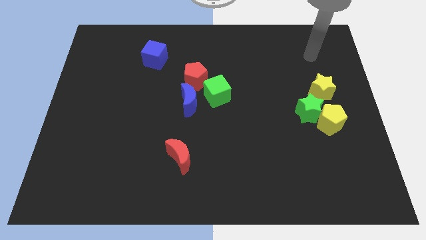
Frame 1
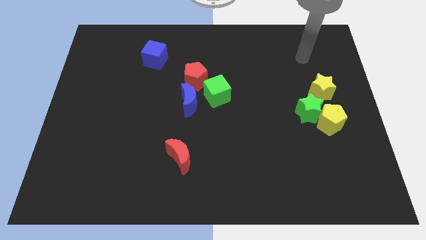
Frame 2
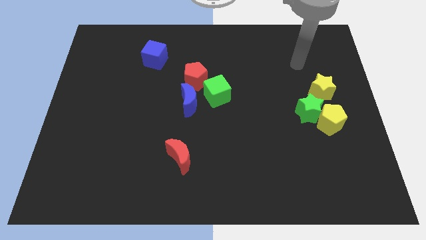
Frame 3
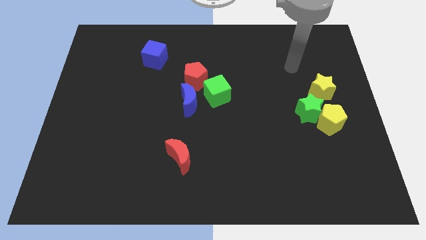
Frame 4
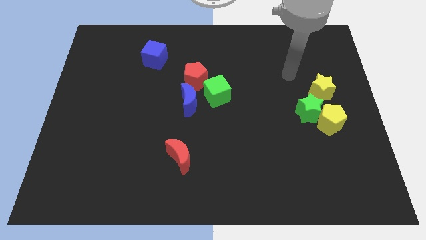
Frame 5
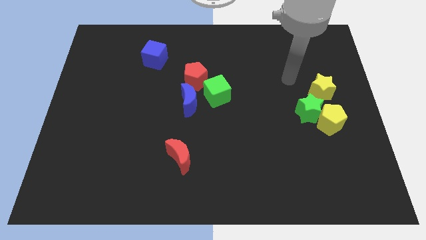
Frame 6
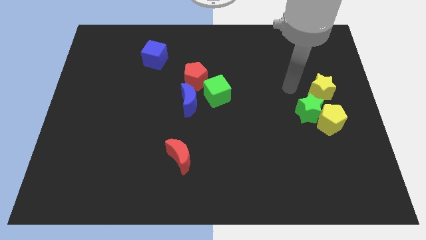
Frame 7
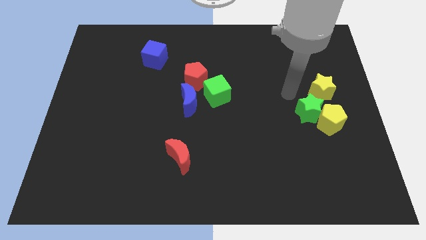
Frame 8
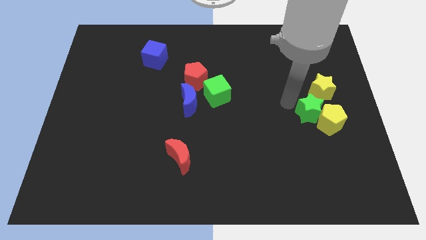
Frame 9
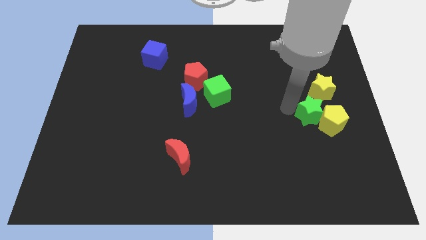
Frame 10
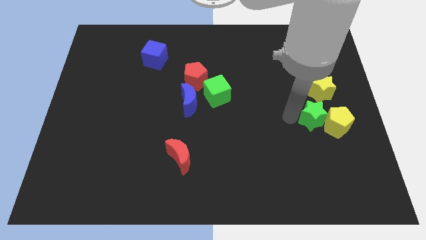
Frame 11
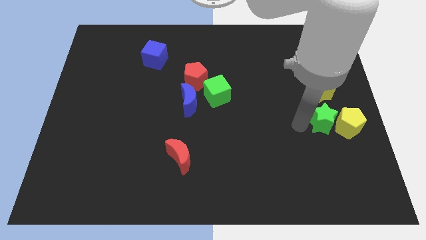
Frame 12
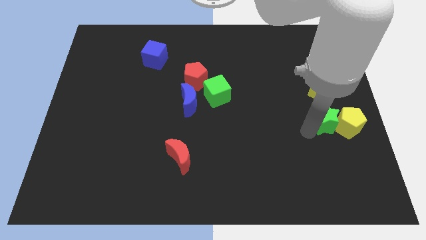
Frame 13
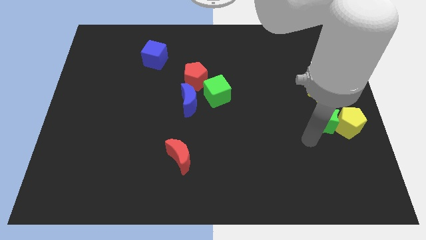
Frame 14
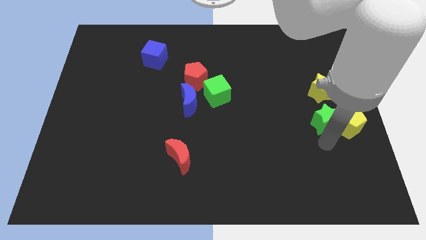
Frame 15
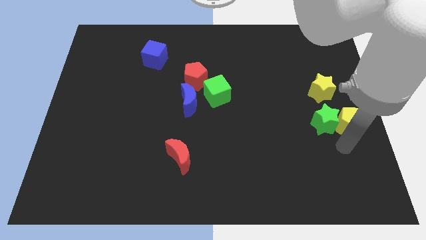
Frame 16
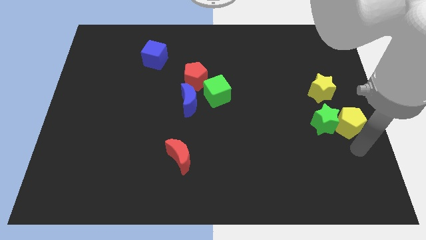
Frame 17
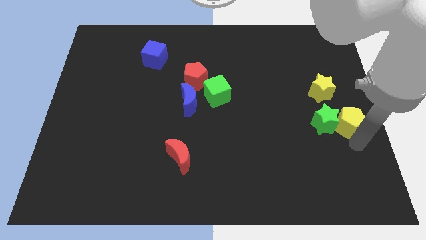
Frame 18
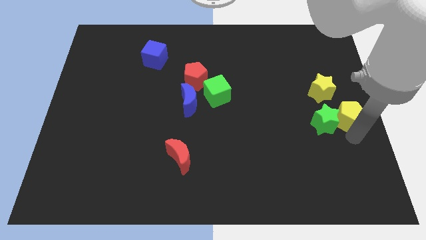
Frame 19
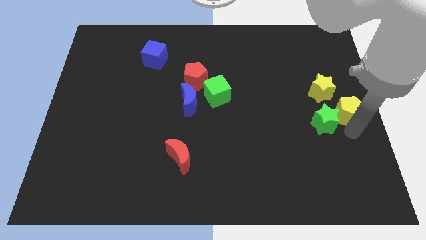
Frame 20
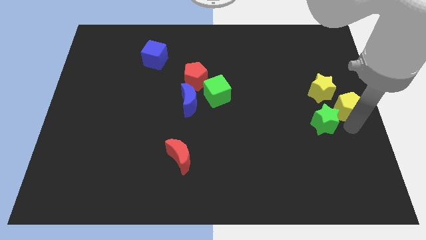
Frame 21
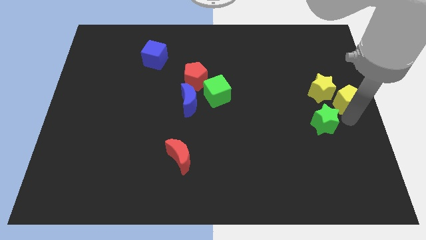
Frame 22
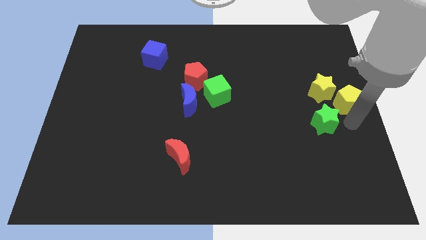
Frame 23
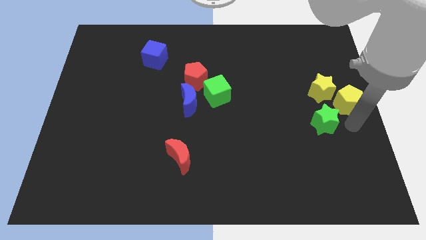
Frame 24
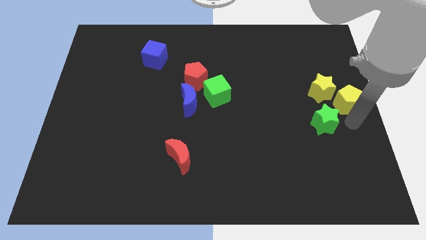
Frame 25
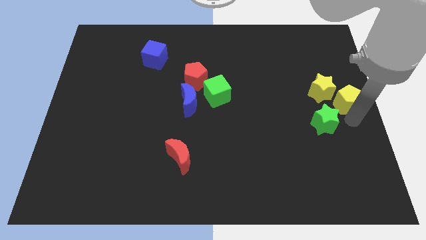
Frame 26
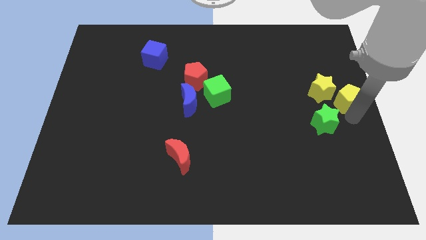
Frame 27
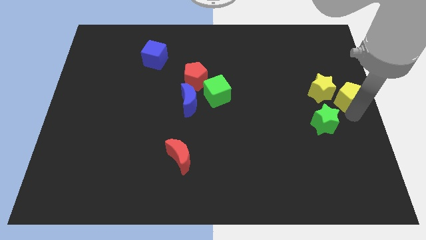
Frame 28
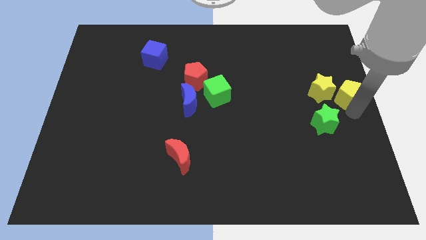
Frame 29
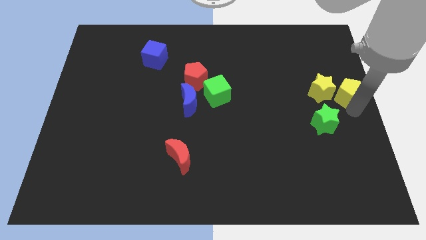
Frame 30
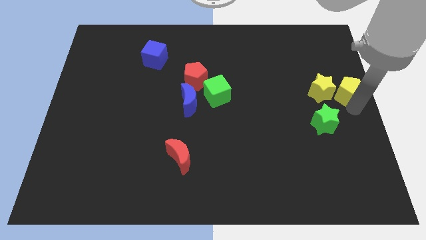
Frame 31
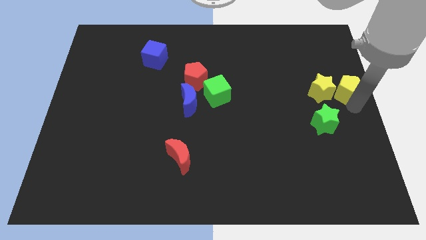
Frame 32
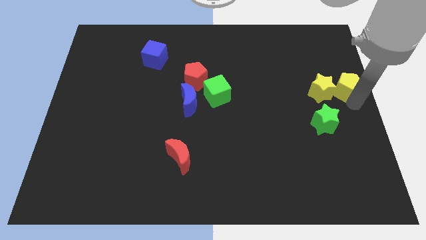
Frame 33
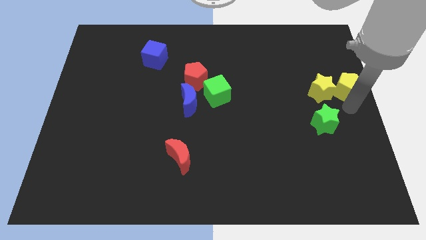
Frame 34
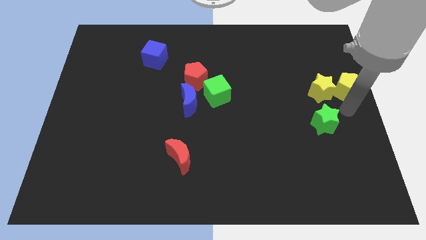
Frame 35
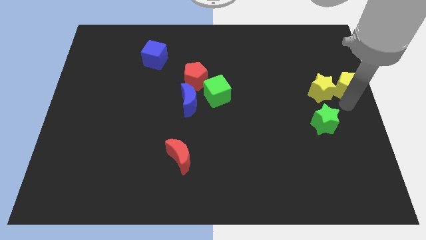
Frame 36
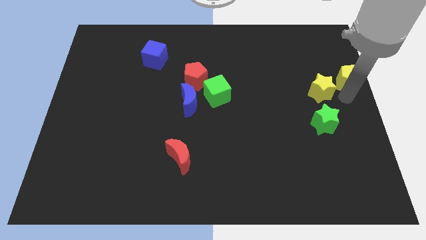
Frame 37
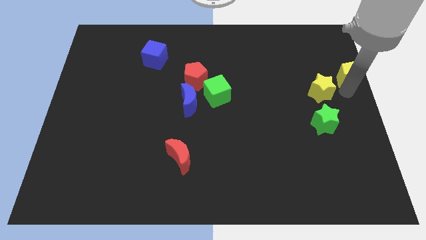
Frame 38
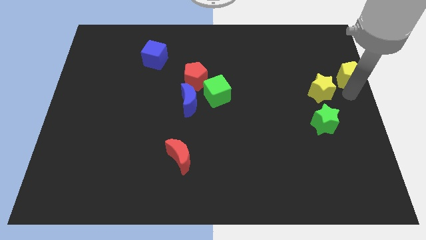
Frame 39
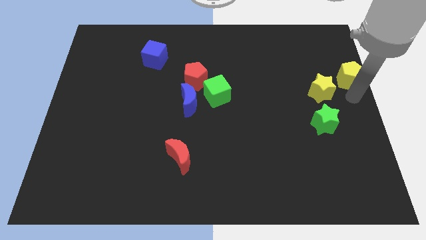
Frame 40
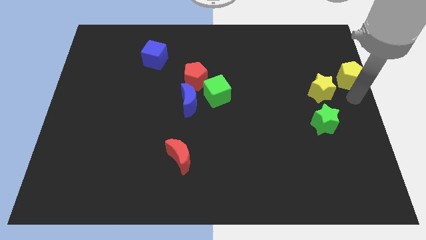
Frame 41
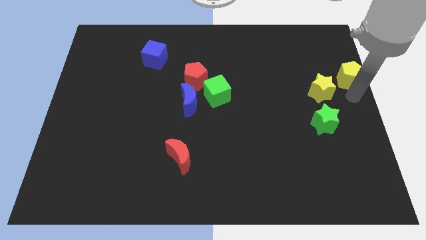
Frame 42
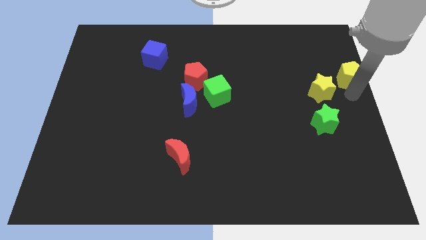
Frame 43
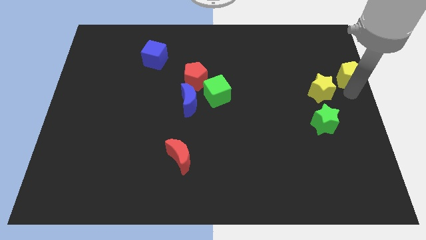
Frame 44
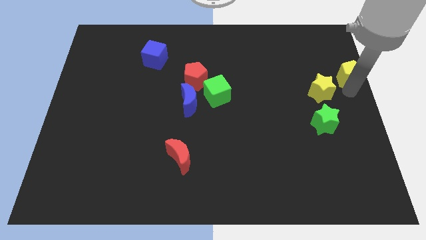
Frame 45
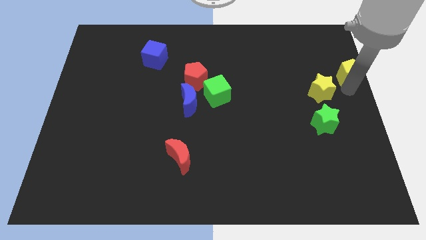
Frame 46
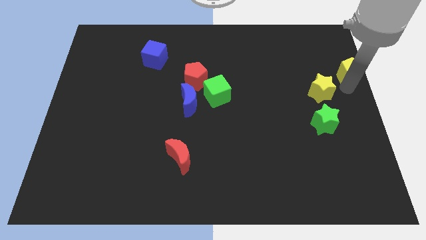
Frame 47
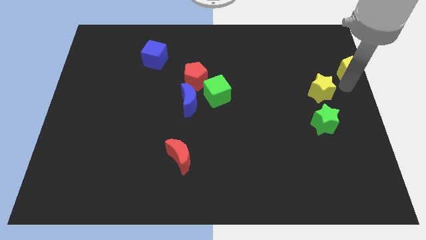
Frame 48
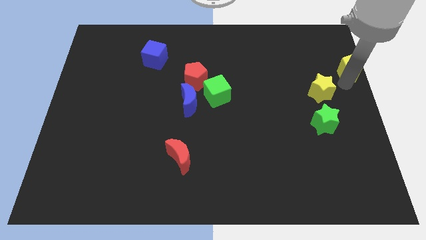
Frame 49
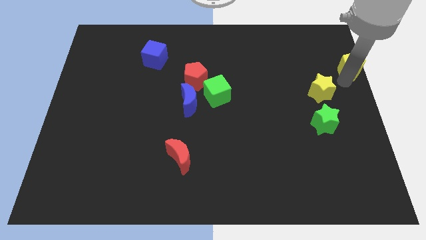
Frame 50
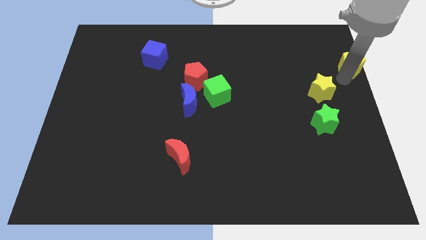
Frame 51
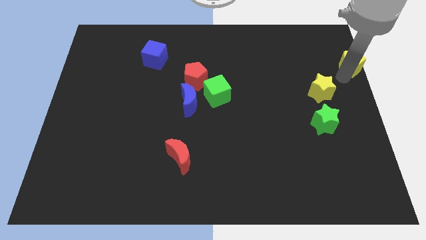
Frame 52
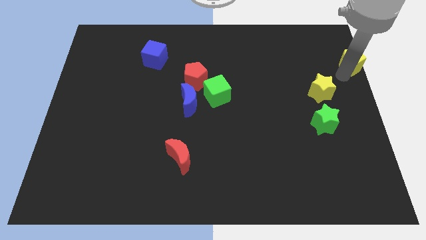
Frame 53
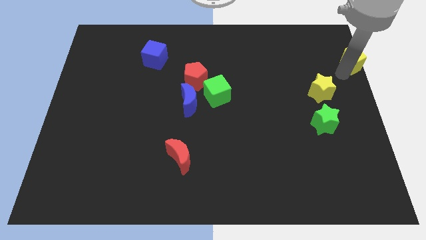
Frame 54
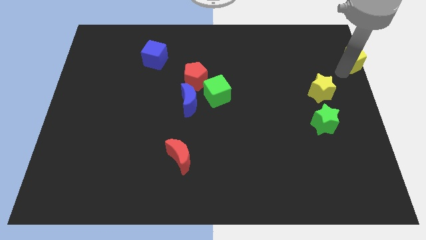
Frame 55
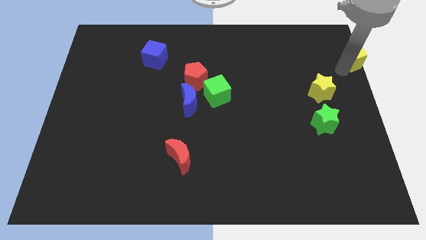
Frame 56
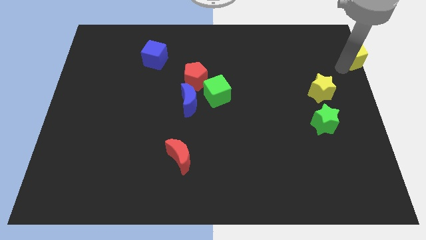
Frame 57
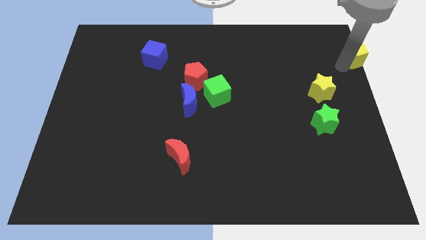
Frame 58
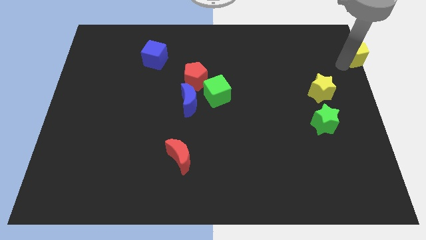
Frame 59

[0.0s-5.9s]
slide the yellow pentagon to the upper right corner

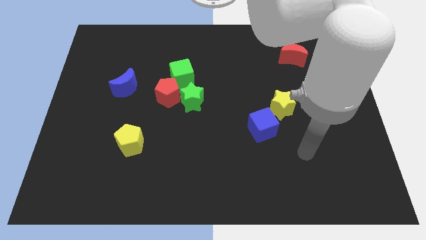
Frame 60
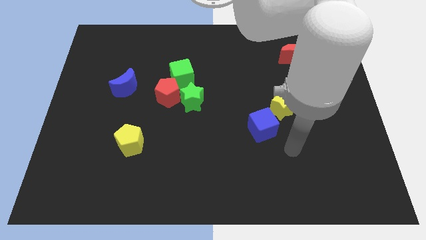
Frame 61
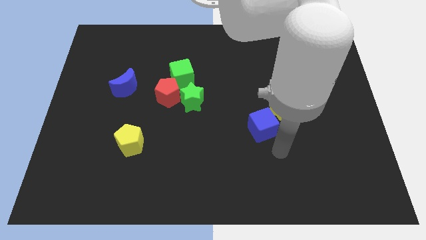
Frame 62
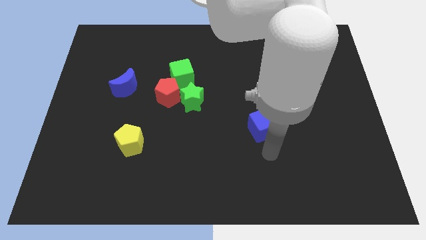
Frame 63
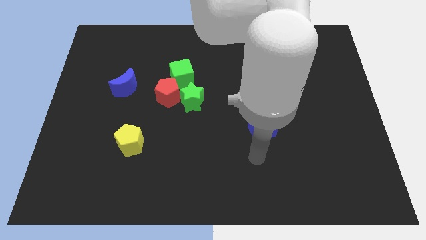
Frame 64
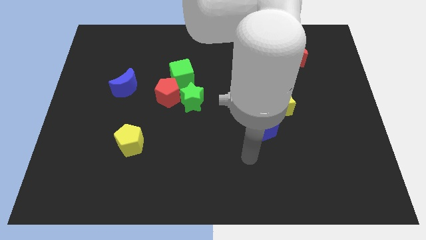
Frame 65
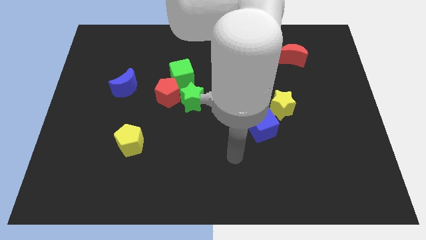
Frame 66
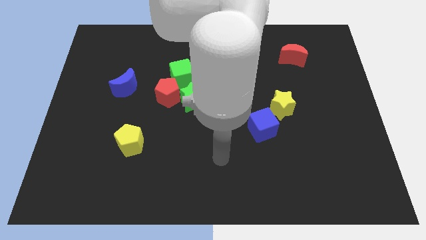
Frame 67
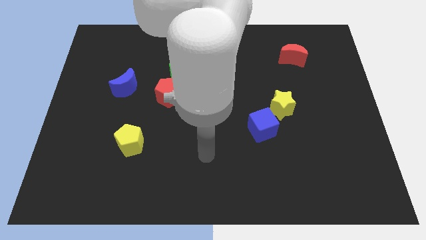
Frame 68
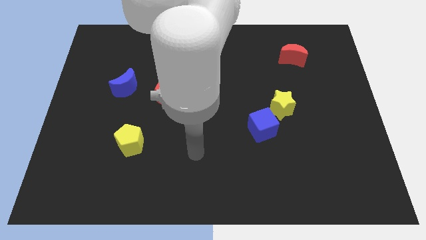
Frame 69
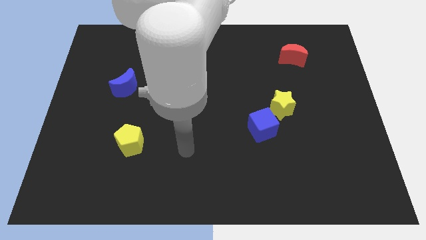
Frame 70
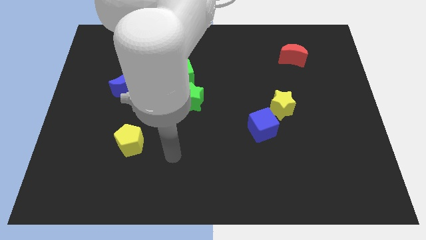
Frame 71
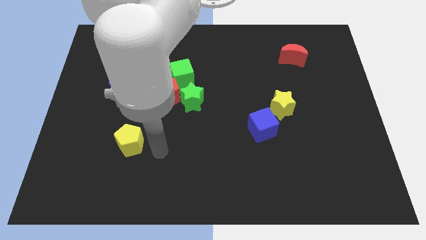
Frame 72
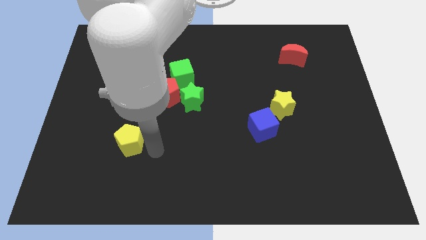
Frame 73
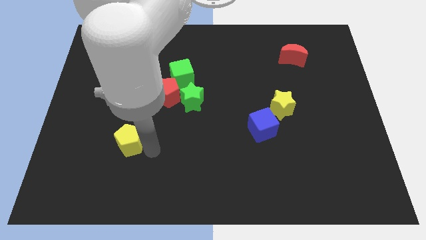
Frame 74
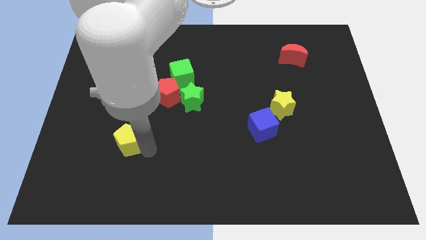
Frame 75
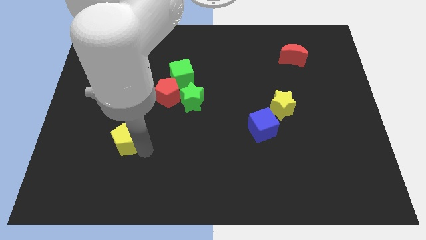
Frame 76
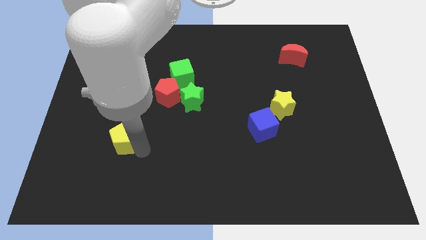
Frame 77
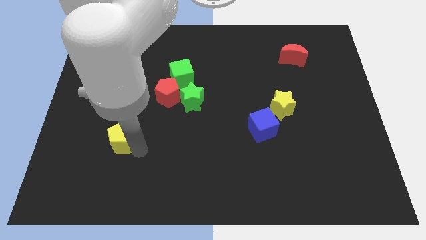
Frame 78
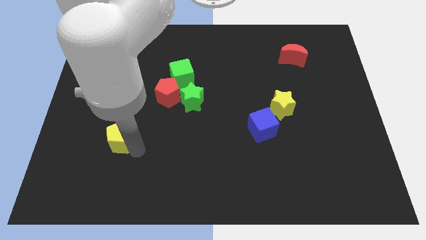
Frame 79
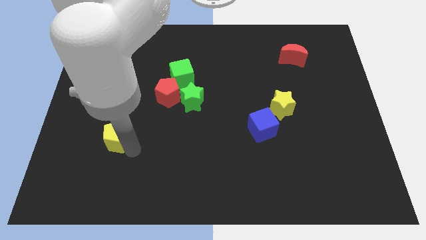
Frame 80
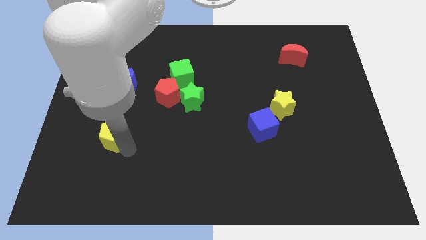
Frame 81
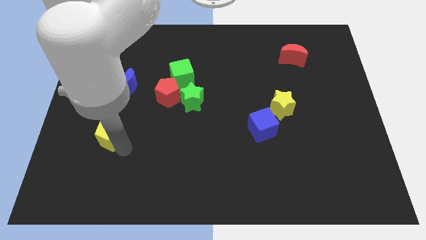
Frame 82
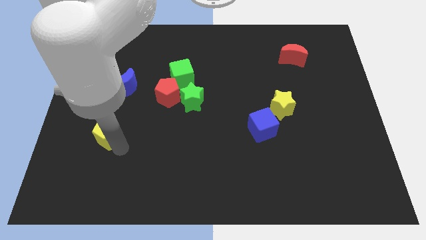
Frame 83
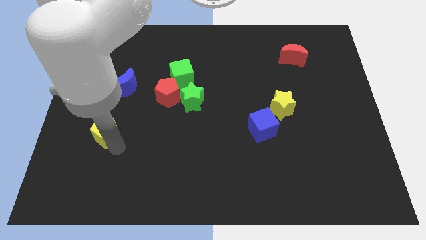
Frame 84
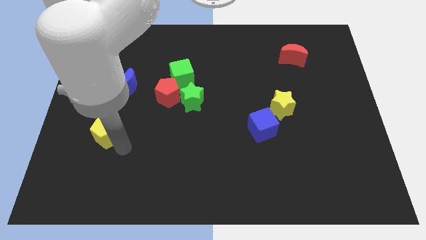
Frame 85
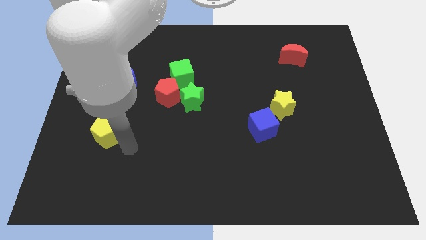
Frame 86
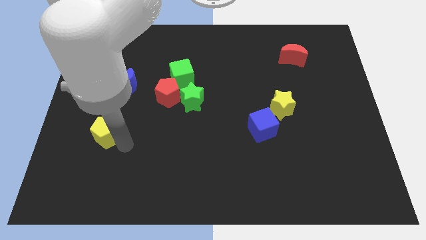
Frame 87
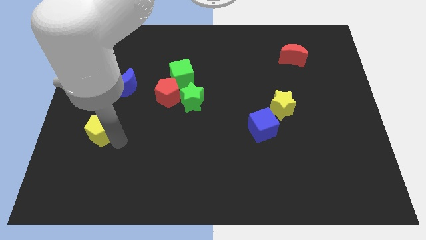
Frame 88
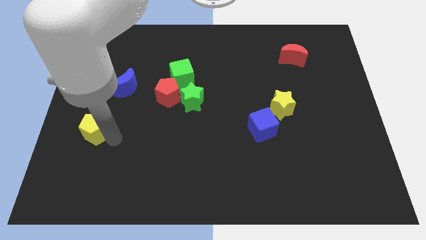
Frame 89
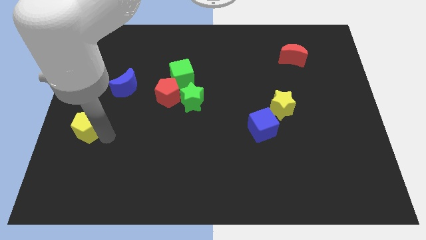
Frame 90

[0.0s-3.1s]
put the yellow pentagon to the left side
